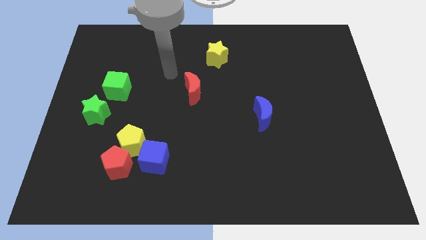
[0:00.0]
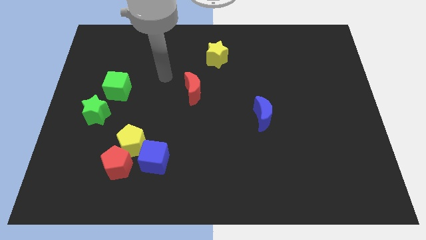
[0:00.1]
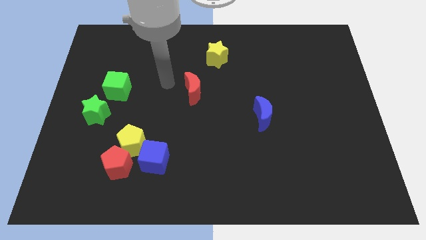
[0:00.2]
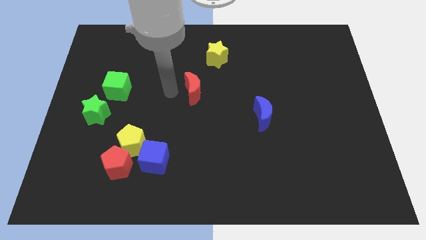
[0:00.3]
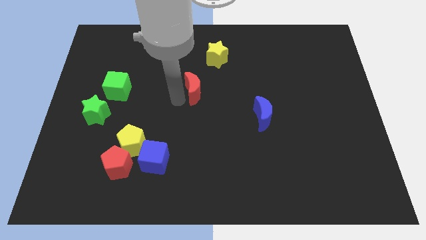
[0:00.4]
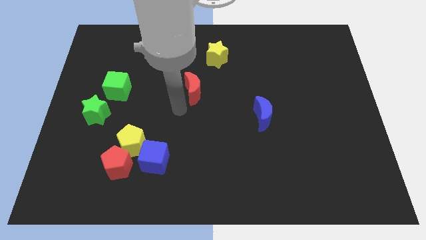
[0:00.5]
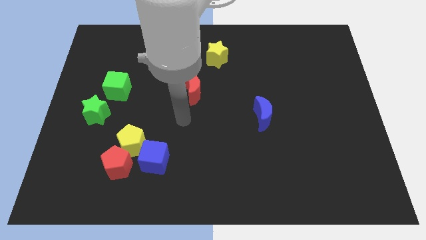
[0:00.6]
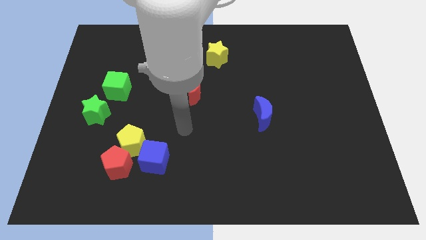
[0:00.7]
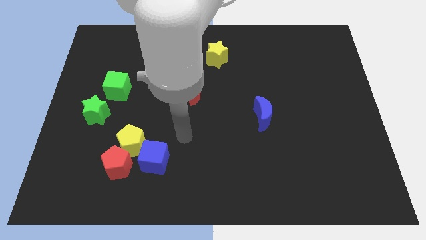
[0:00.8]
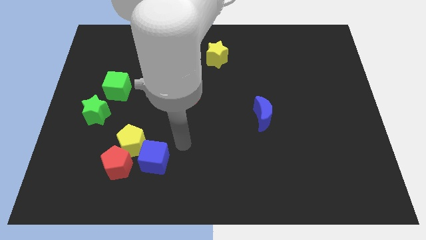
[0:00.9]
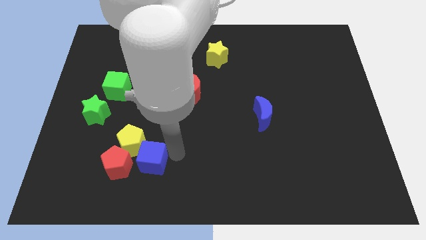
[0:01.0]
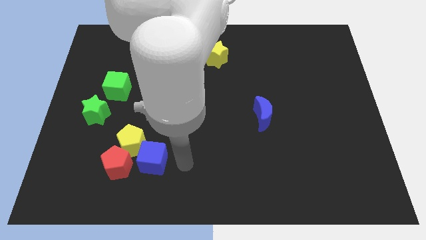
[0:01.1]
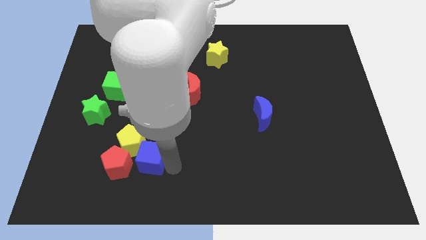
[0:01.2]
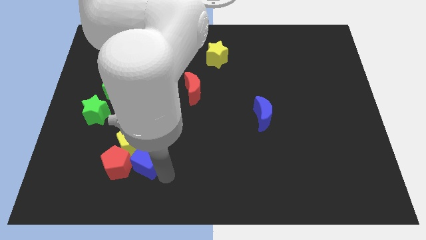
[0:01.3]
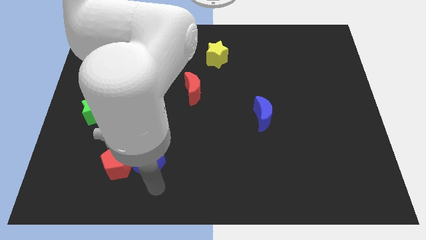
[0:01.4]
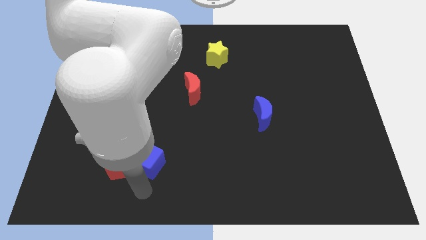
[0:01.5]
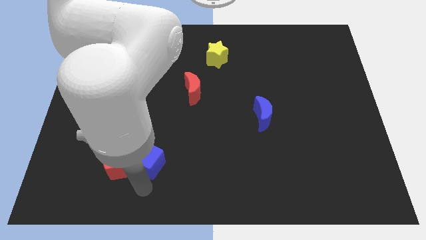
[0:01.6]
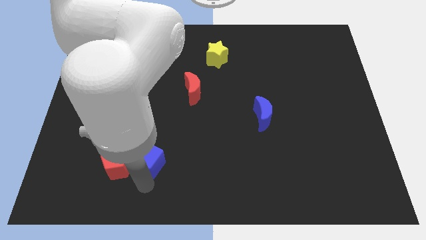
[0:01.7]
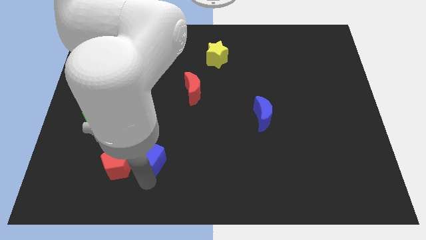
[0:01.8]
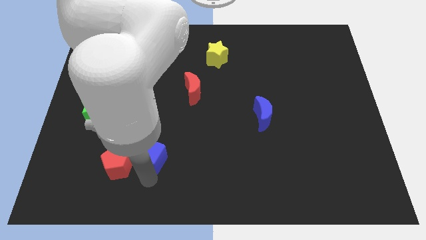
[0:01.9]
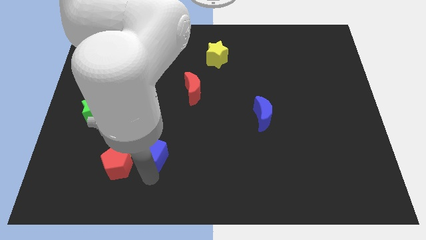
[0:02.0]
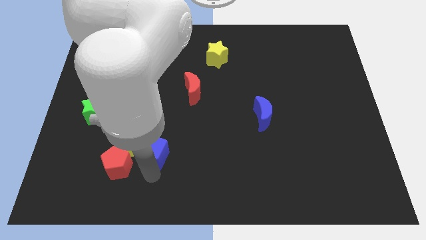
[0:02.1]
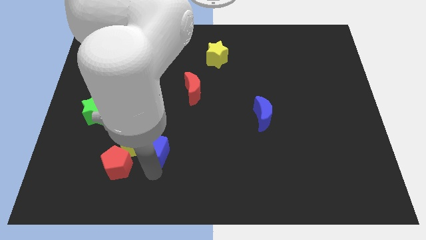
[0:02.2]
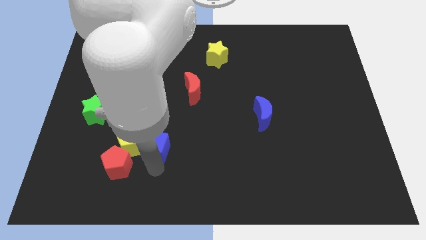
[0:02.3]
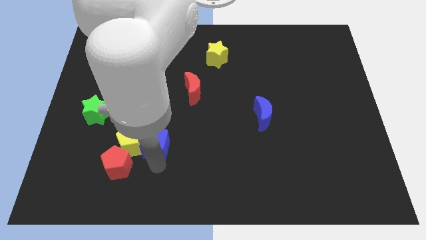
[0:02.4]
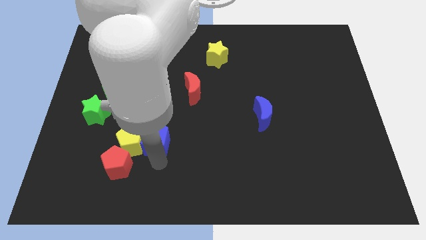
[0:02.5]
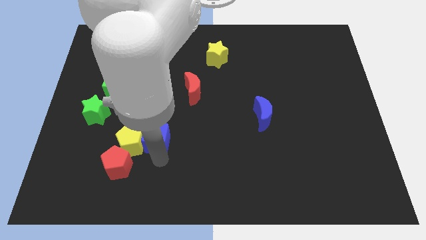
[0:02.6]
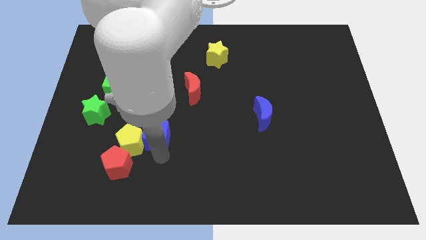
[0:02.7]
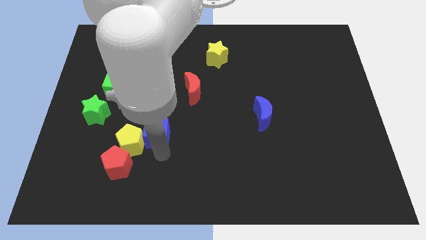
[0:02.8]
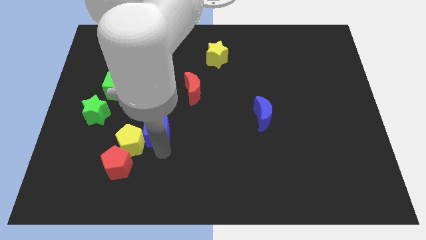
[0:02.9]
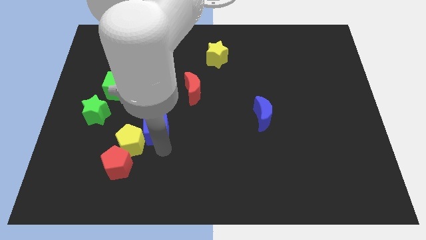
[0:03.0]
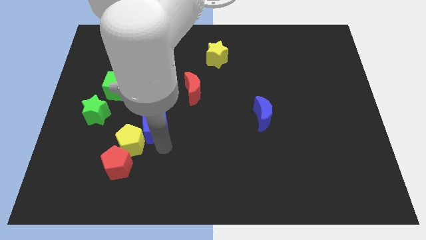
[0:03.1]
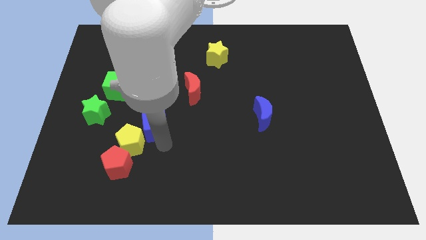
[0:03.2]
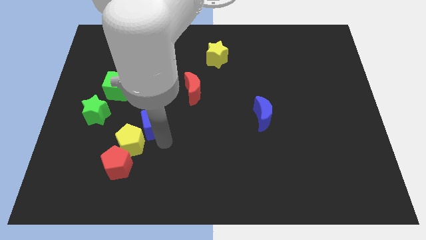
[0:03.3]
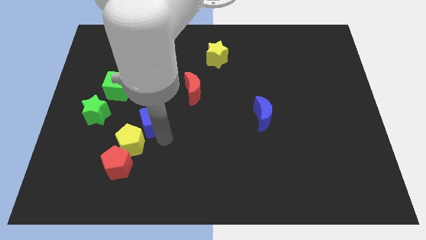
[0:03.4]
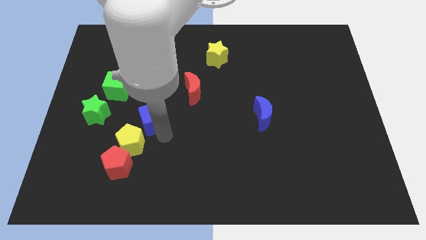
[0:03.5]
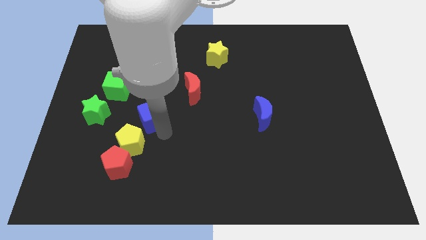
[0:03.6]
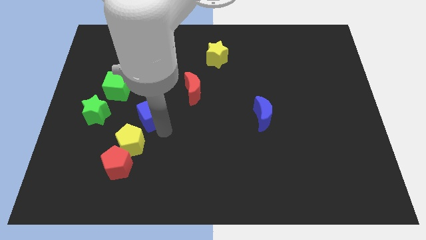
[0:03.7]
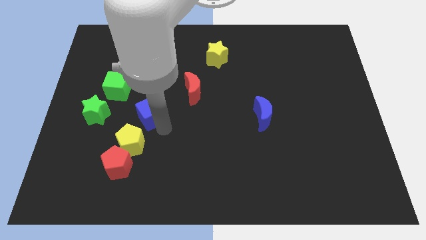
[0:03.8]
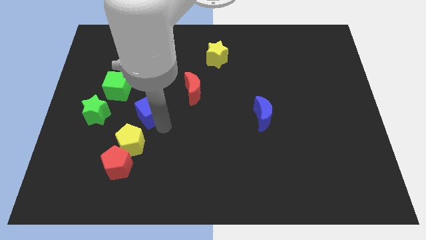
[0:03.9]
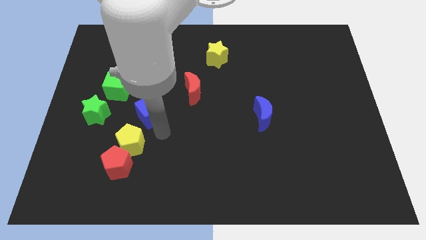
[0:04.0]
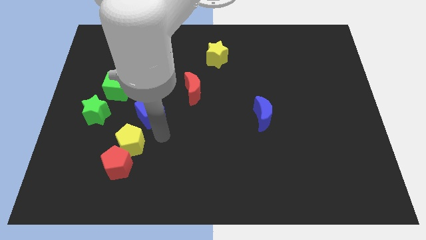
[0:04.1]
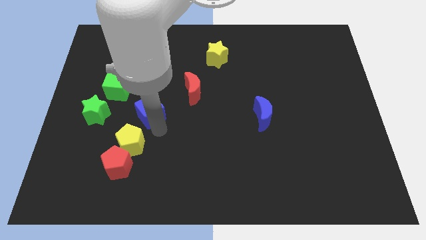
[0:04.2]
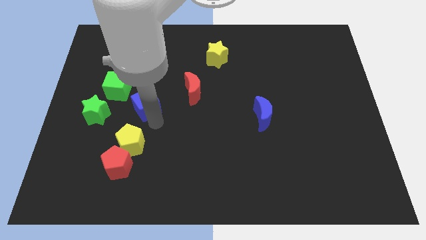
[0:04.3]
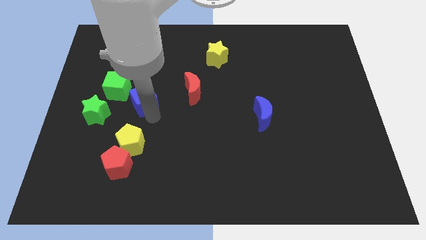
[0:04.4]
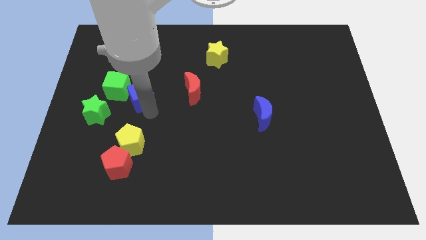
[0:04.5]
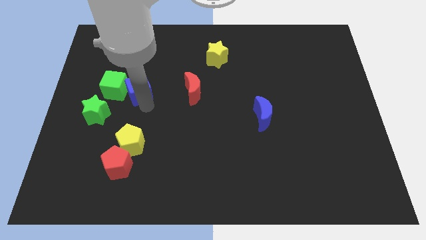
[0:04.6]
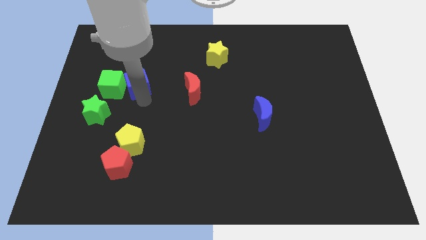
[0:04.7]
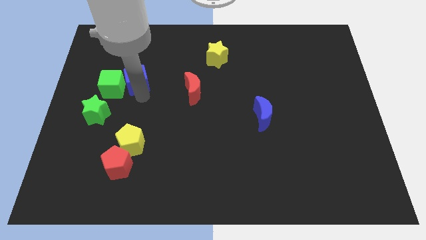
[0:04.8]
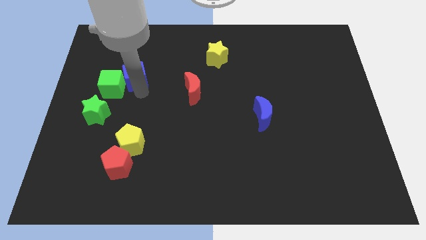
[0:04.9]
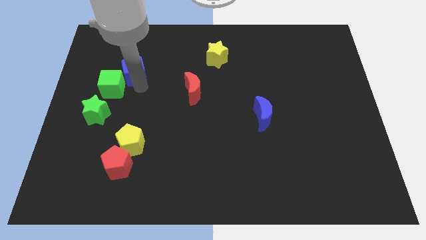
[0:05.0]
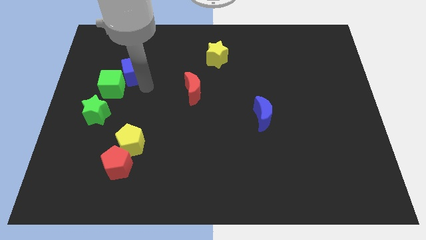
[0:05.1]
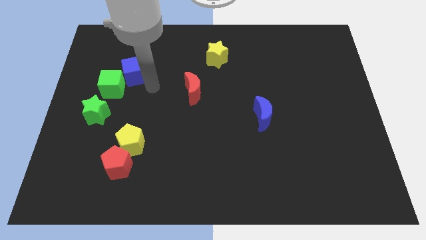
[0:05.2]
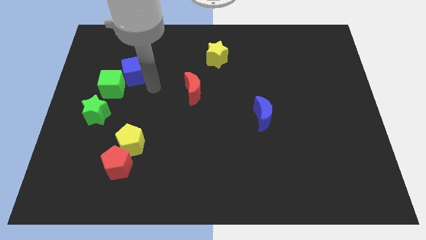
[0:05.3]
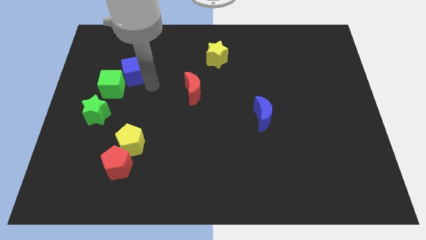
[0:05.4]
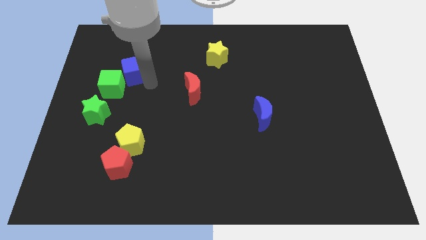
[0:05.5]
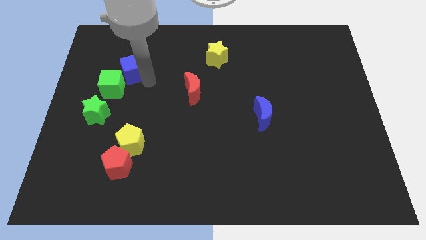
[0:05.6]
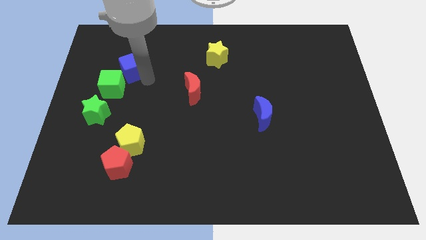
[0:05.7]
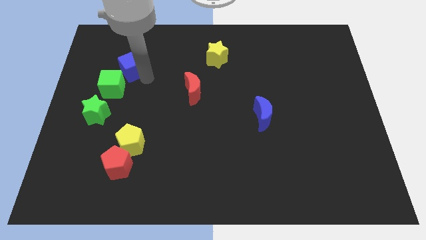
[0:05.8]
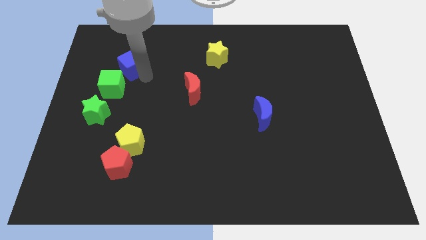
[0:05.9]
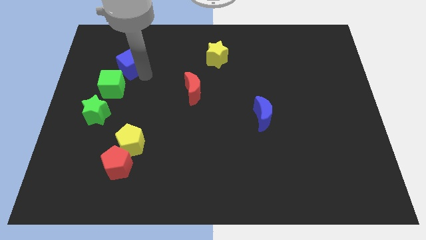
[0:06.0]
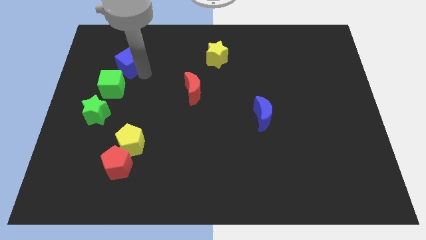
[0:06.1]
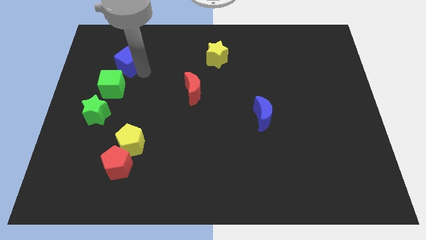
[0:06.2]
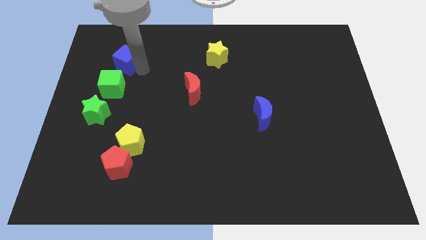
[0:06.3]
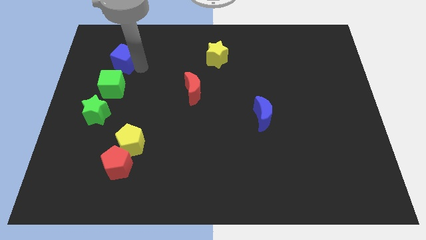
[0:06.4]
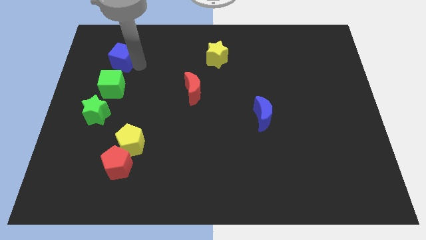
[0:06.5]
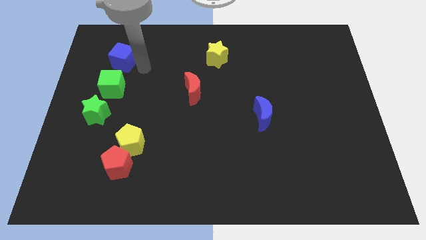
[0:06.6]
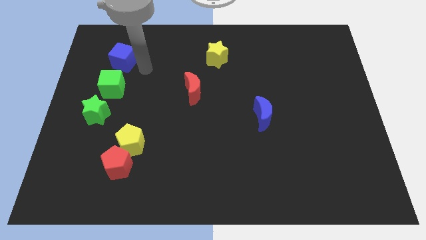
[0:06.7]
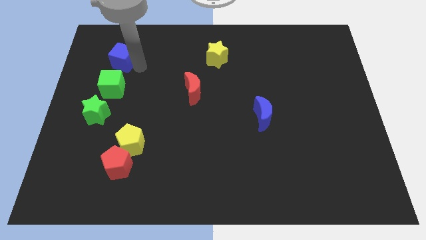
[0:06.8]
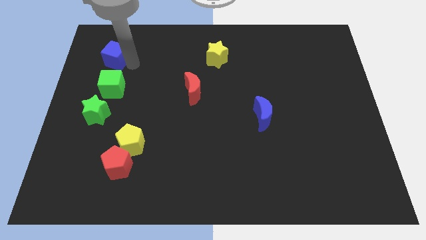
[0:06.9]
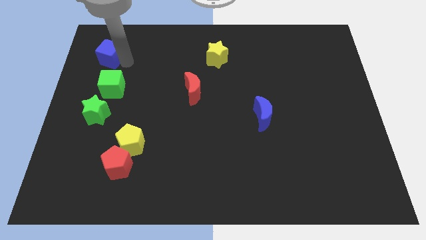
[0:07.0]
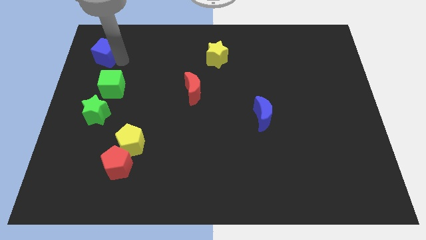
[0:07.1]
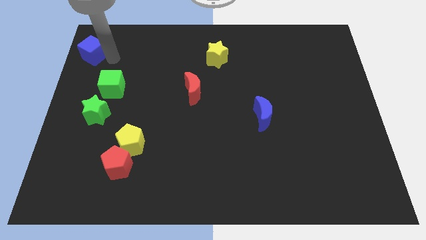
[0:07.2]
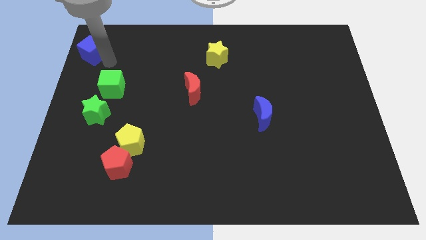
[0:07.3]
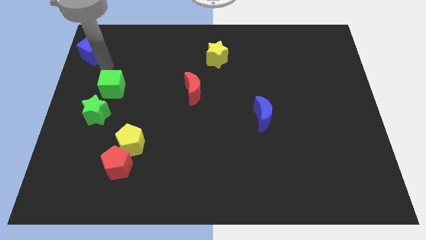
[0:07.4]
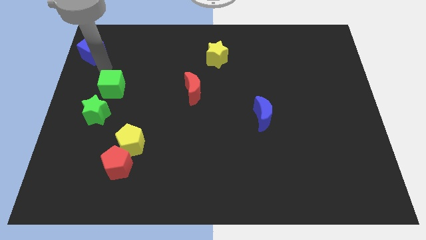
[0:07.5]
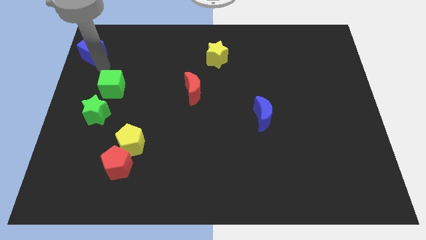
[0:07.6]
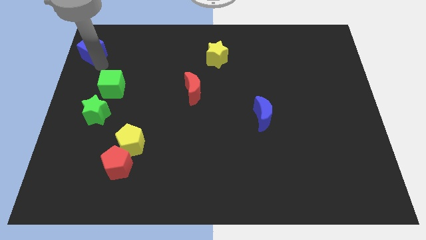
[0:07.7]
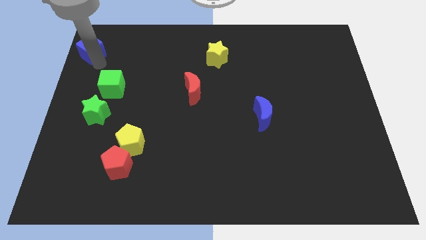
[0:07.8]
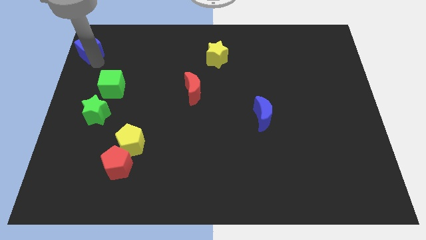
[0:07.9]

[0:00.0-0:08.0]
put the blue cube to the top left of the board
